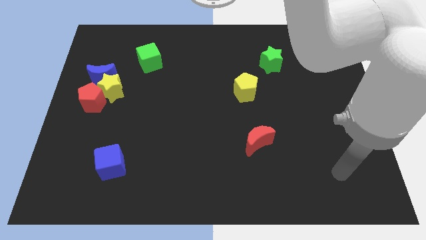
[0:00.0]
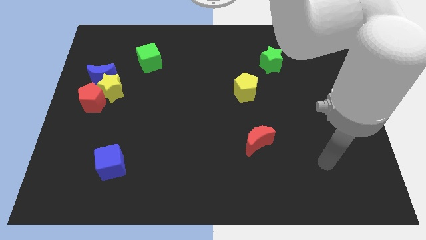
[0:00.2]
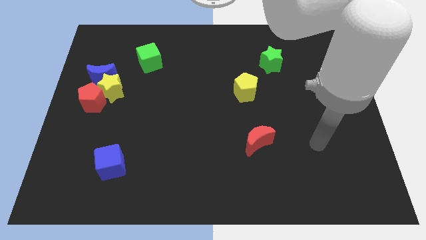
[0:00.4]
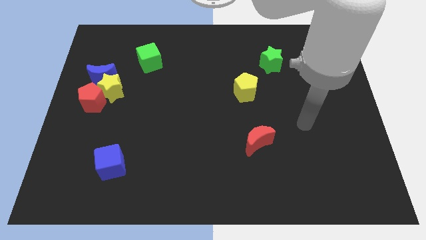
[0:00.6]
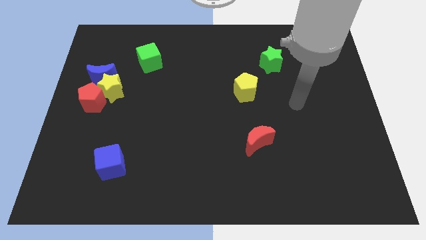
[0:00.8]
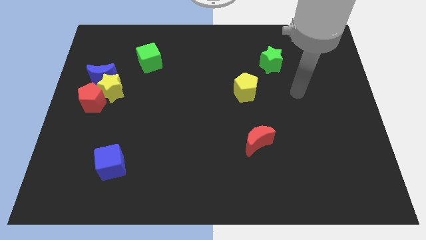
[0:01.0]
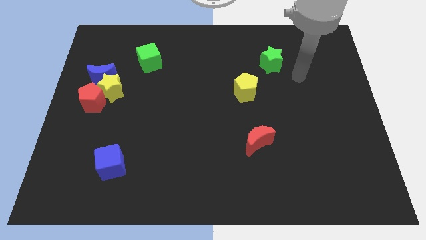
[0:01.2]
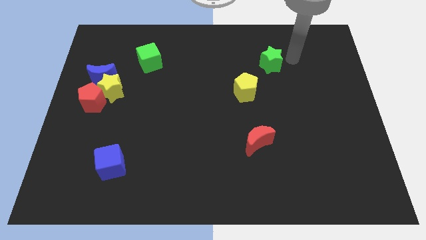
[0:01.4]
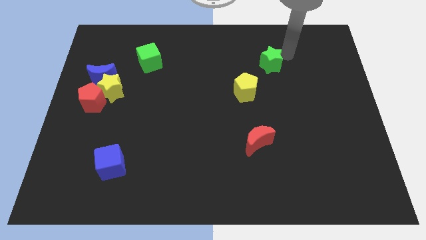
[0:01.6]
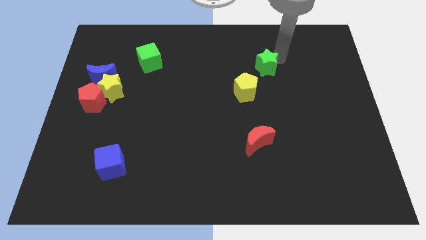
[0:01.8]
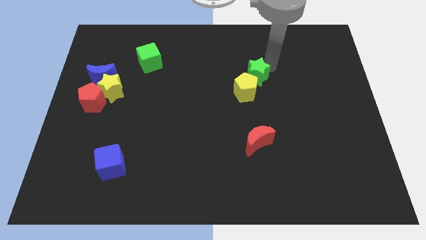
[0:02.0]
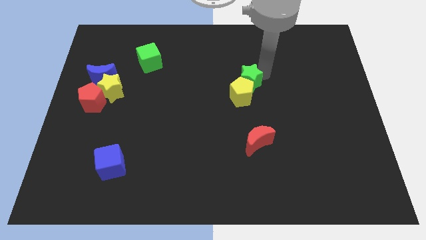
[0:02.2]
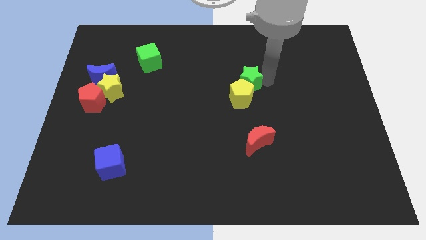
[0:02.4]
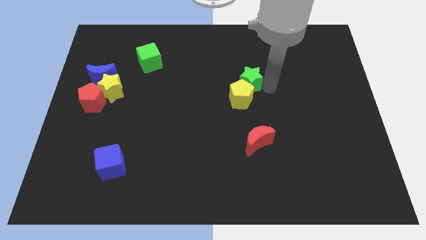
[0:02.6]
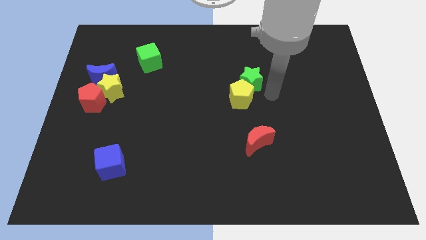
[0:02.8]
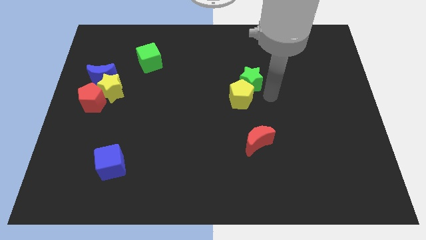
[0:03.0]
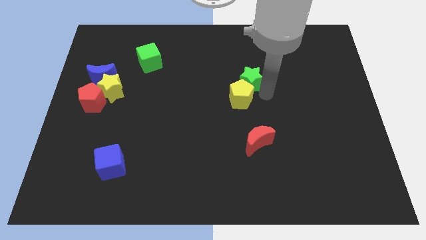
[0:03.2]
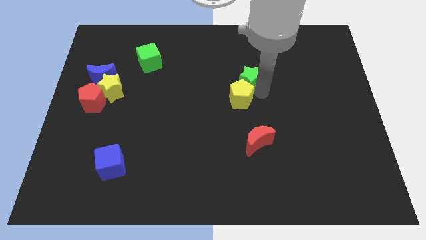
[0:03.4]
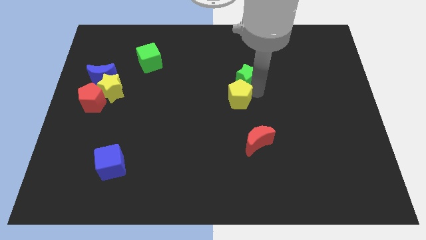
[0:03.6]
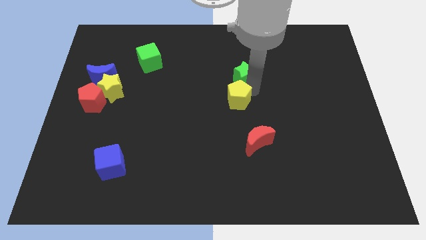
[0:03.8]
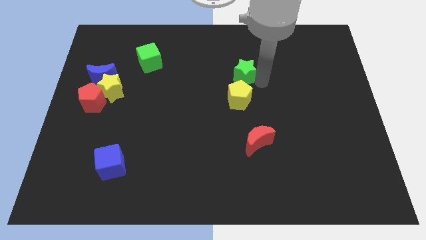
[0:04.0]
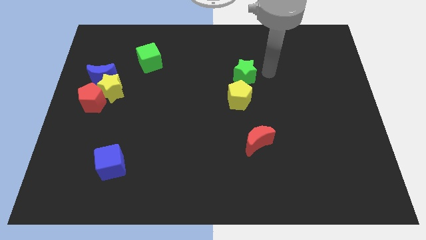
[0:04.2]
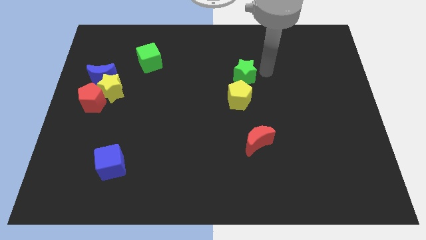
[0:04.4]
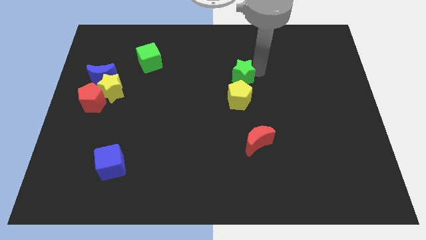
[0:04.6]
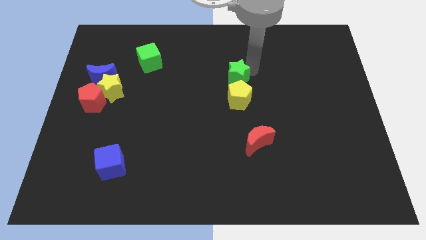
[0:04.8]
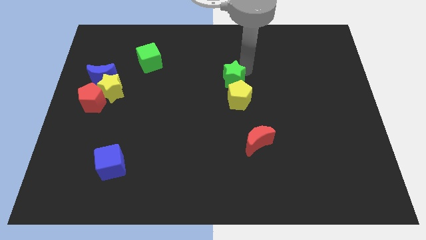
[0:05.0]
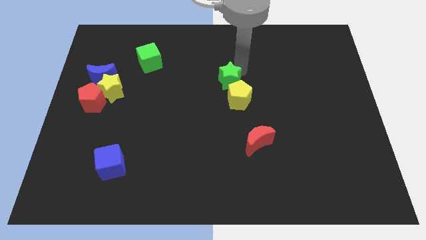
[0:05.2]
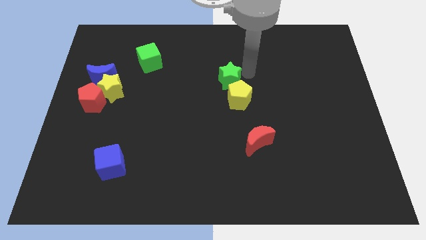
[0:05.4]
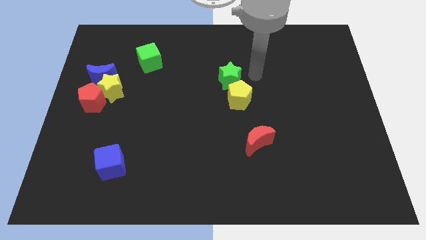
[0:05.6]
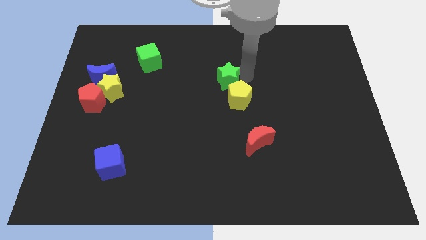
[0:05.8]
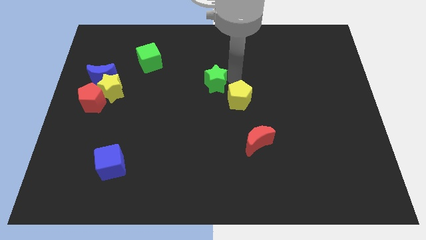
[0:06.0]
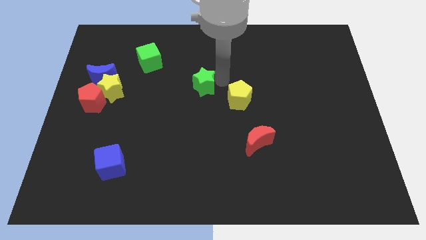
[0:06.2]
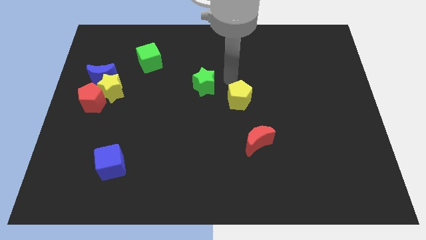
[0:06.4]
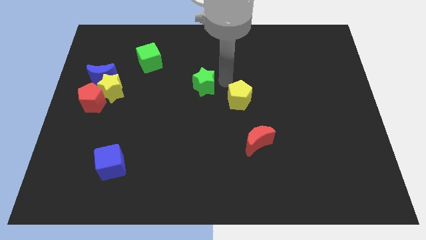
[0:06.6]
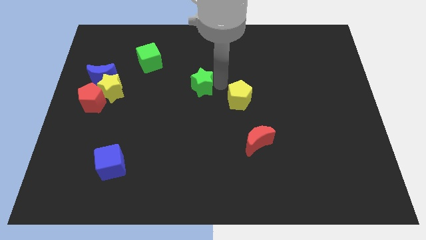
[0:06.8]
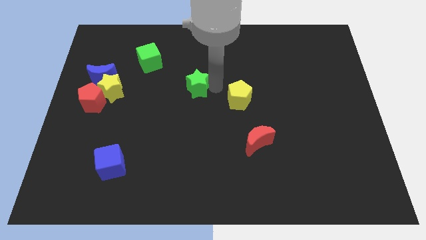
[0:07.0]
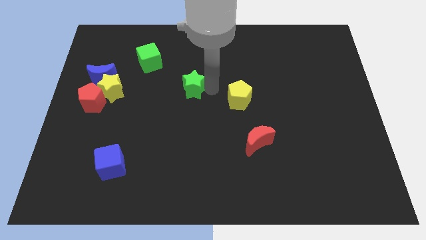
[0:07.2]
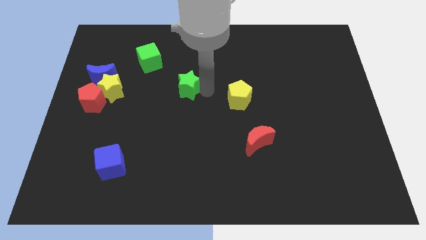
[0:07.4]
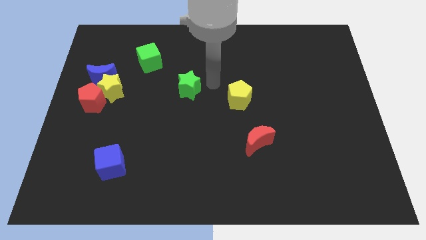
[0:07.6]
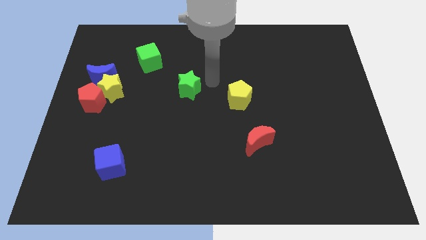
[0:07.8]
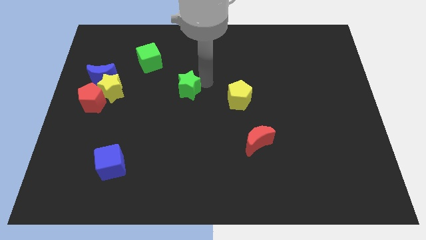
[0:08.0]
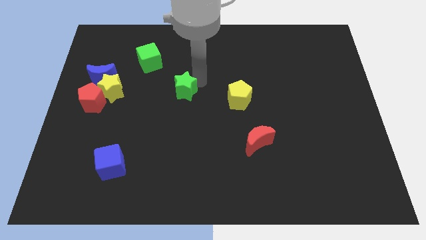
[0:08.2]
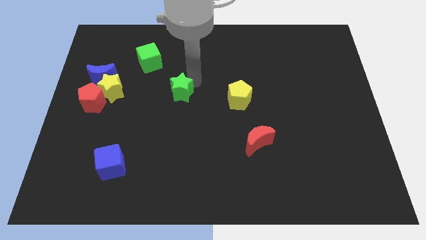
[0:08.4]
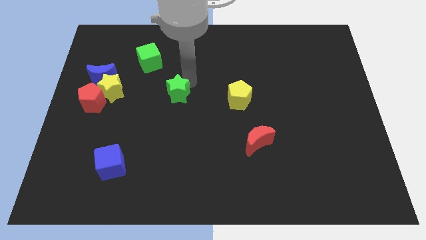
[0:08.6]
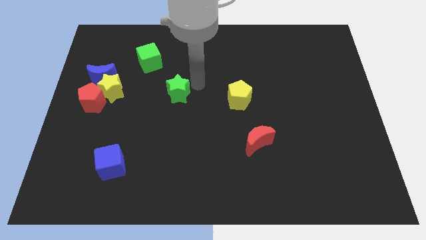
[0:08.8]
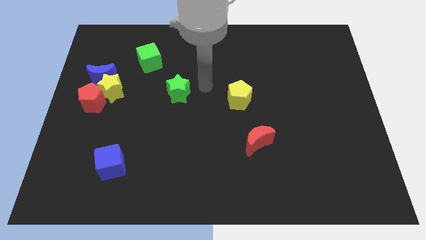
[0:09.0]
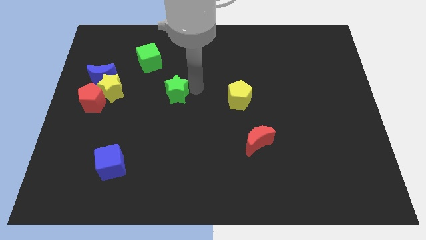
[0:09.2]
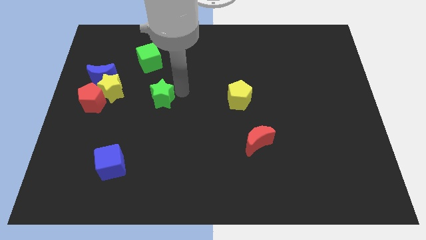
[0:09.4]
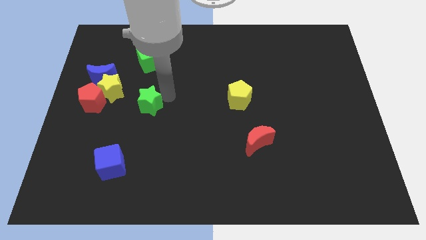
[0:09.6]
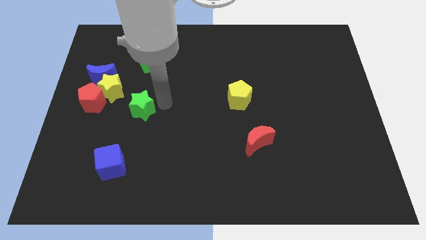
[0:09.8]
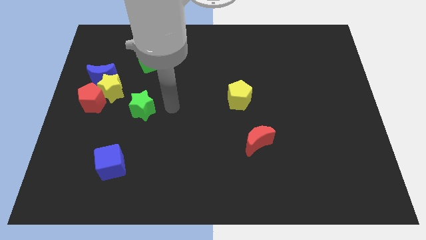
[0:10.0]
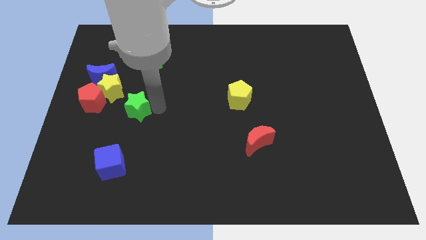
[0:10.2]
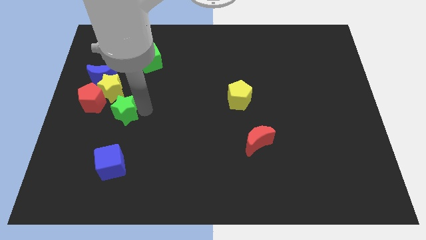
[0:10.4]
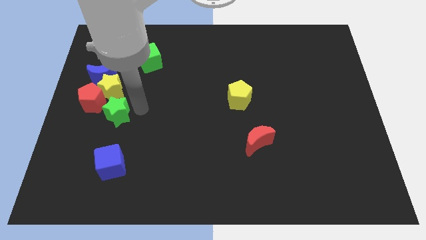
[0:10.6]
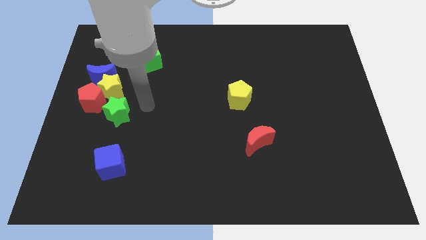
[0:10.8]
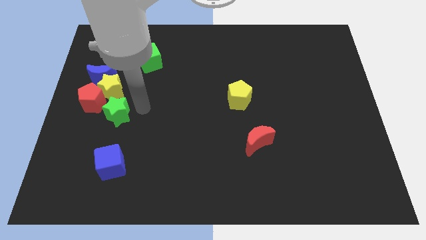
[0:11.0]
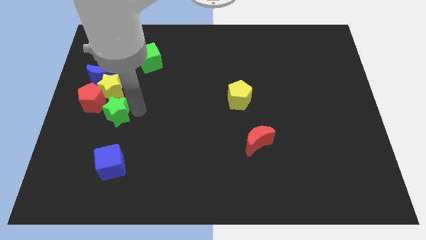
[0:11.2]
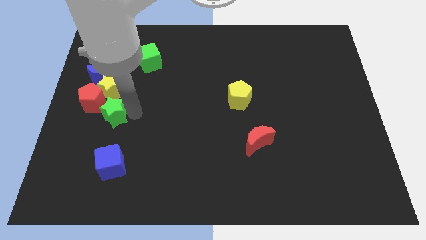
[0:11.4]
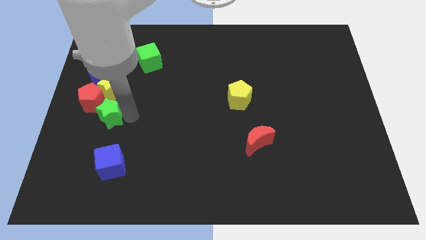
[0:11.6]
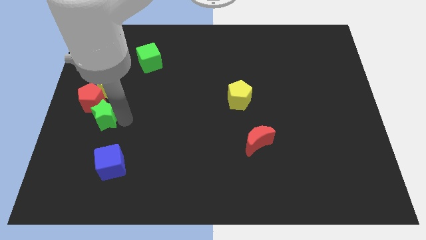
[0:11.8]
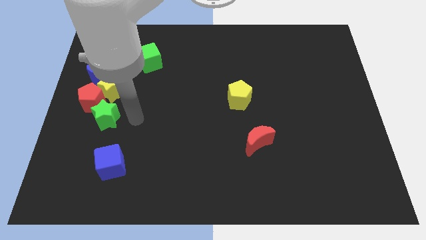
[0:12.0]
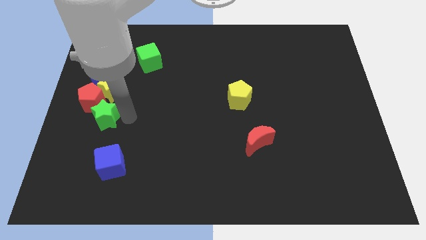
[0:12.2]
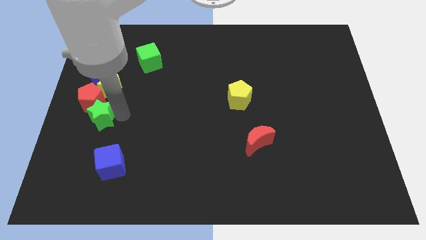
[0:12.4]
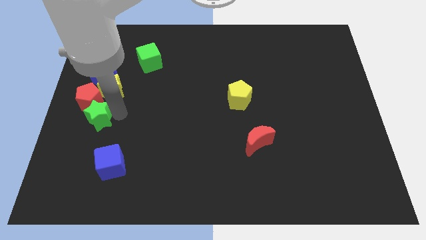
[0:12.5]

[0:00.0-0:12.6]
move the green star to the left side of the board

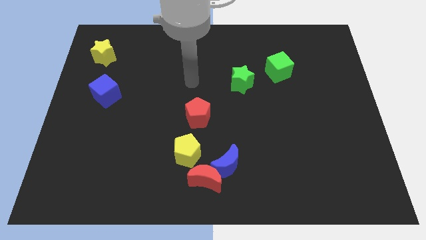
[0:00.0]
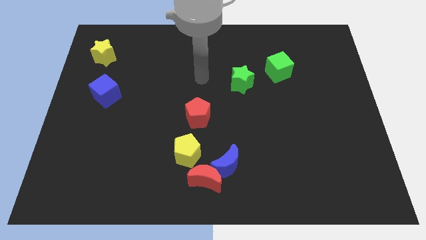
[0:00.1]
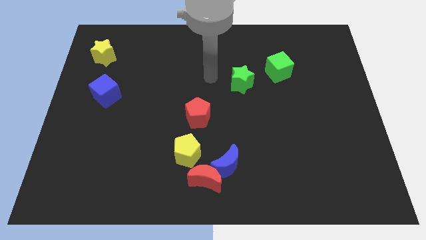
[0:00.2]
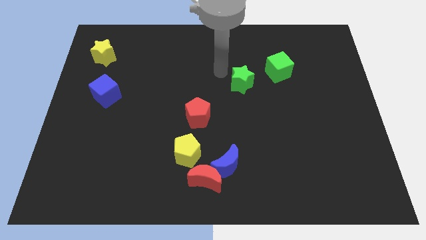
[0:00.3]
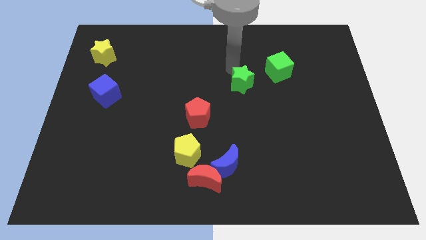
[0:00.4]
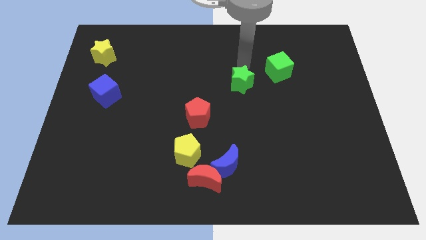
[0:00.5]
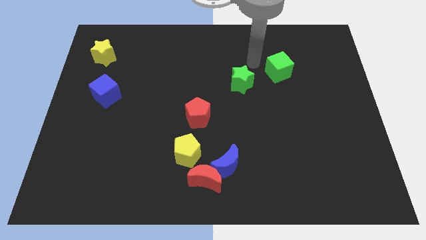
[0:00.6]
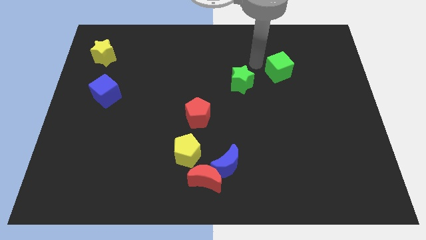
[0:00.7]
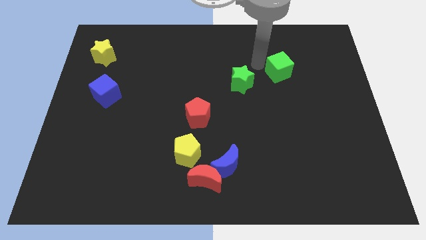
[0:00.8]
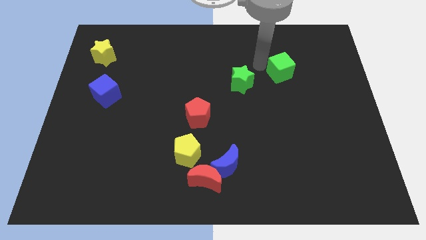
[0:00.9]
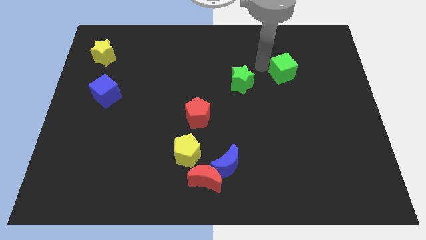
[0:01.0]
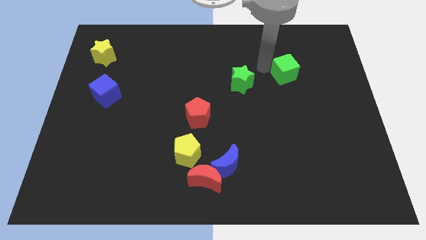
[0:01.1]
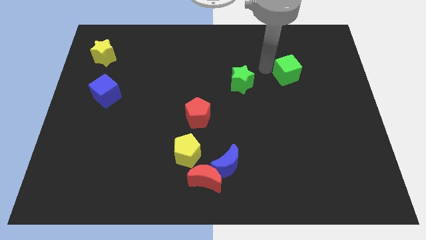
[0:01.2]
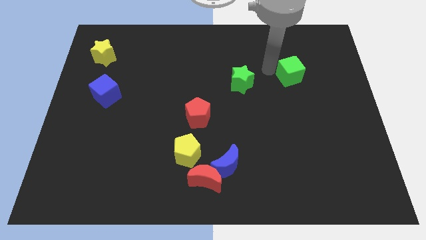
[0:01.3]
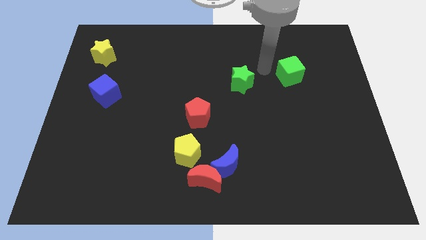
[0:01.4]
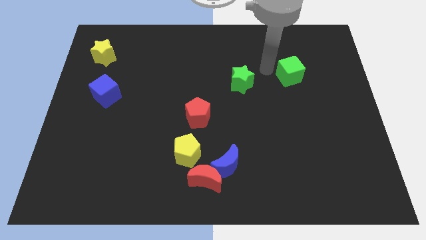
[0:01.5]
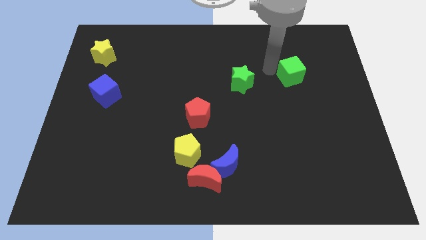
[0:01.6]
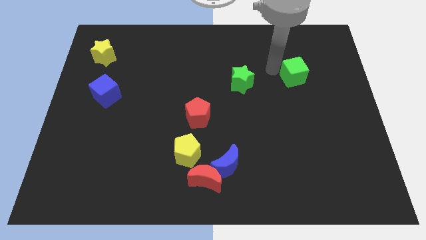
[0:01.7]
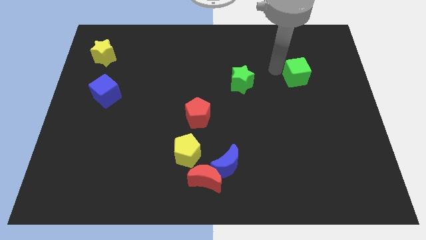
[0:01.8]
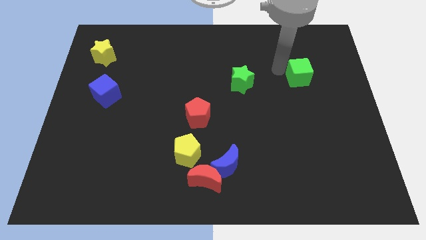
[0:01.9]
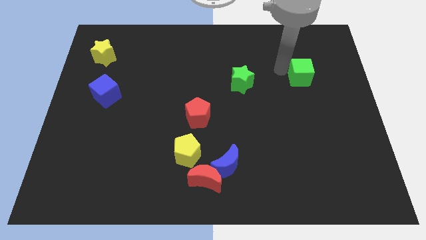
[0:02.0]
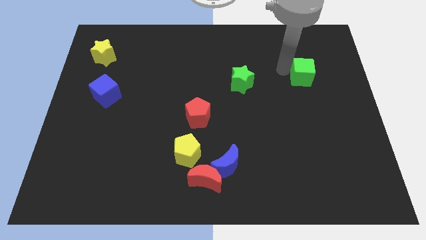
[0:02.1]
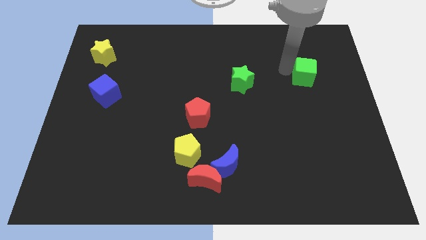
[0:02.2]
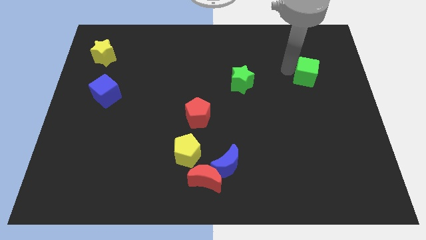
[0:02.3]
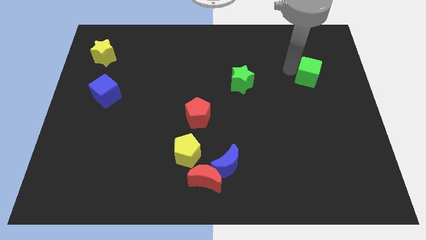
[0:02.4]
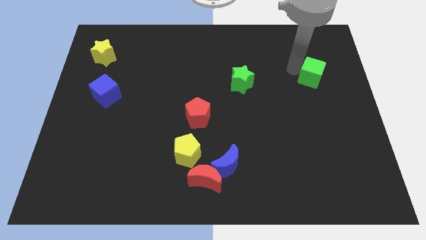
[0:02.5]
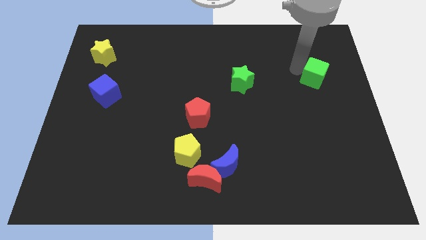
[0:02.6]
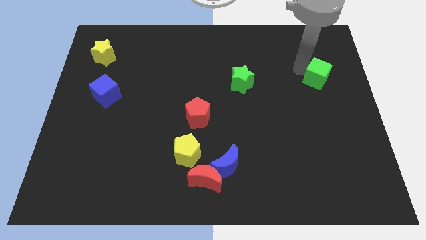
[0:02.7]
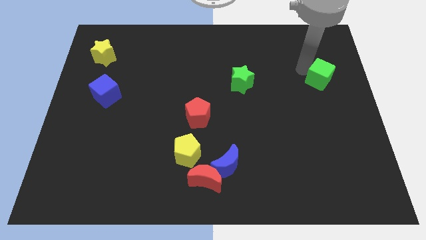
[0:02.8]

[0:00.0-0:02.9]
slide the green cube to the right side
